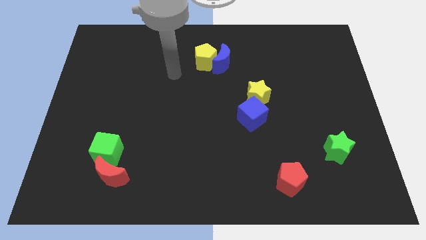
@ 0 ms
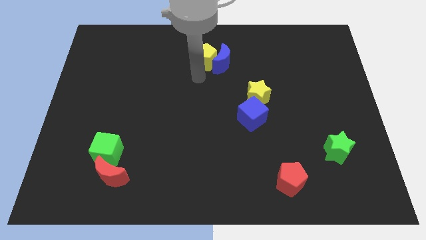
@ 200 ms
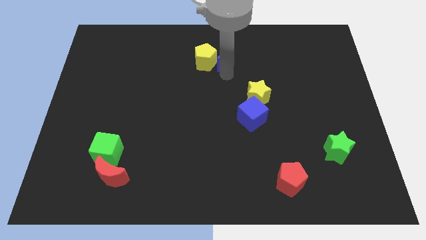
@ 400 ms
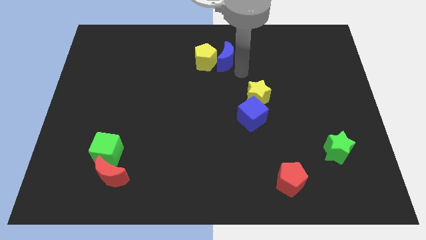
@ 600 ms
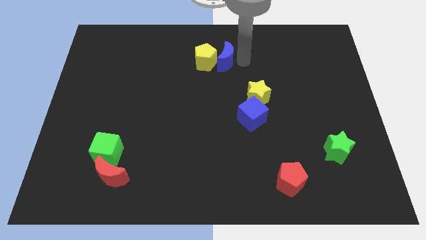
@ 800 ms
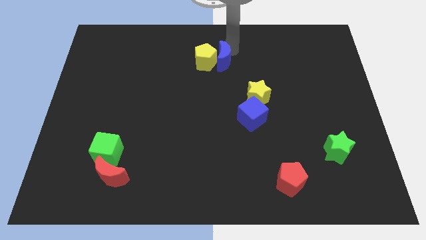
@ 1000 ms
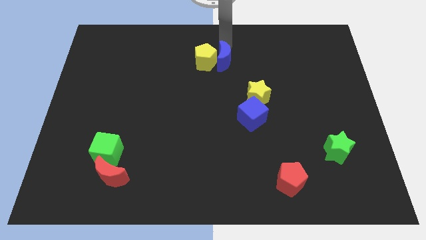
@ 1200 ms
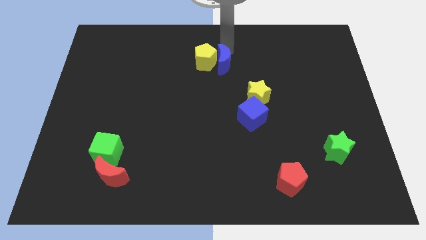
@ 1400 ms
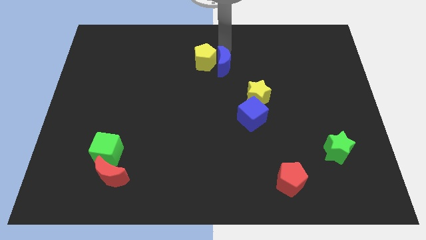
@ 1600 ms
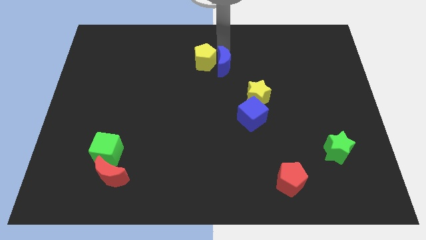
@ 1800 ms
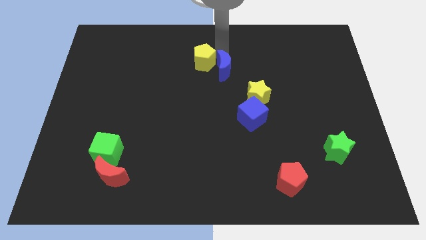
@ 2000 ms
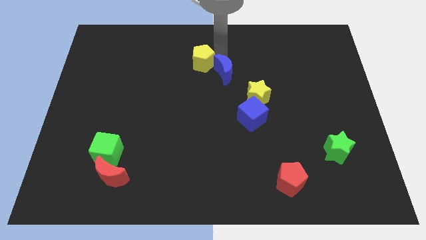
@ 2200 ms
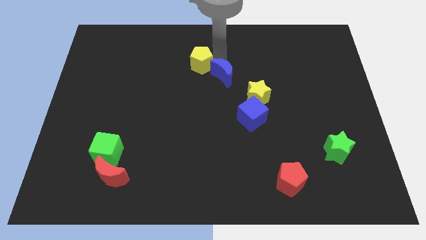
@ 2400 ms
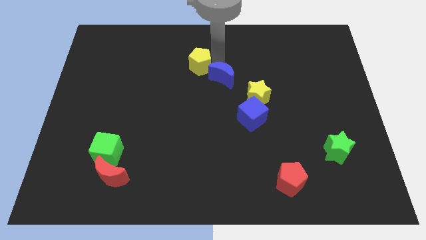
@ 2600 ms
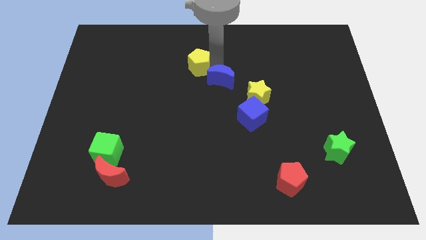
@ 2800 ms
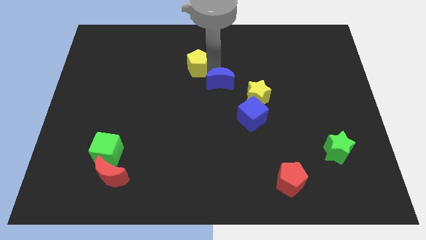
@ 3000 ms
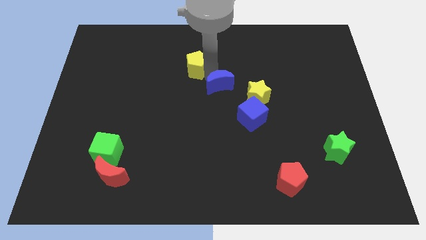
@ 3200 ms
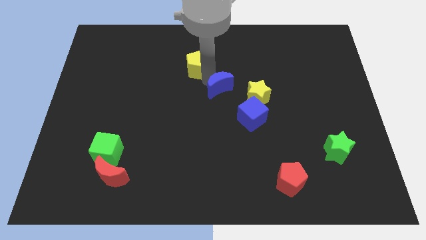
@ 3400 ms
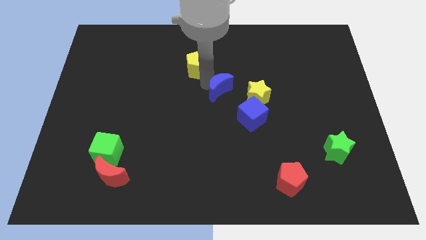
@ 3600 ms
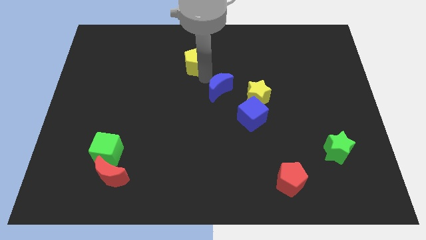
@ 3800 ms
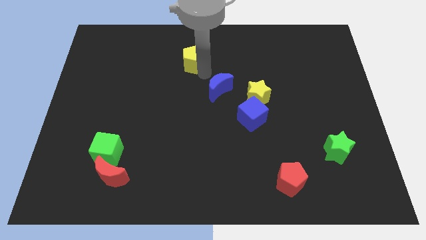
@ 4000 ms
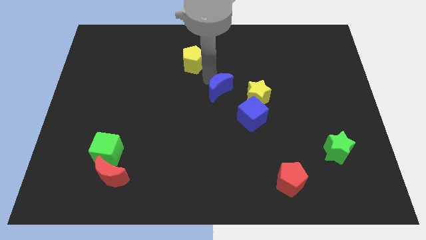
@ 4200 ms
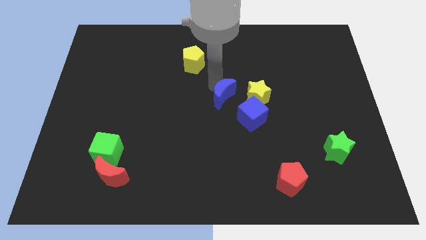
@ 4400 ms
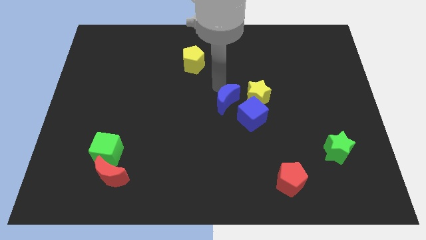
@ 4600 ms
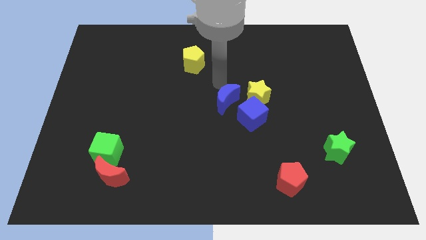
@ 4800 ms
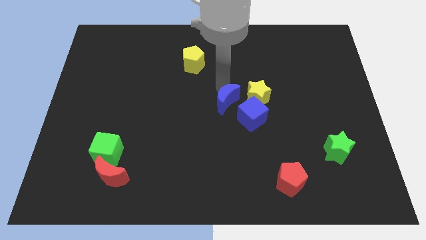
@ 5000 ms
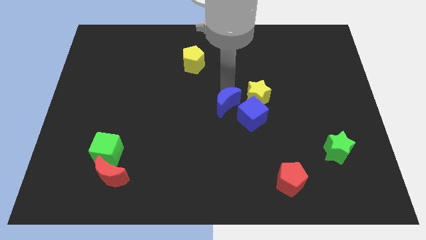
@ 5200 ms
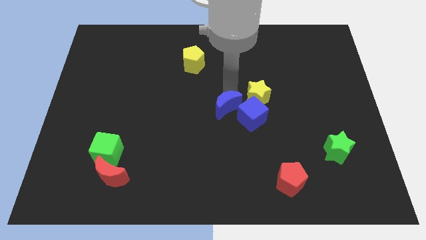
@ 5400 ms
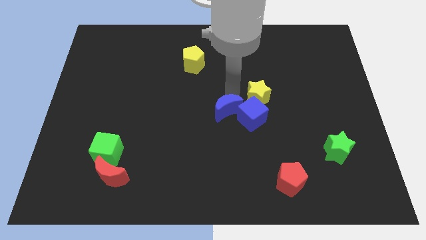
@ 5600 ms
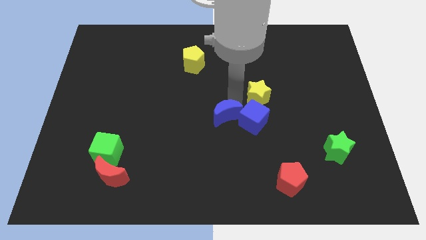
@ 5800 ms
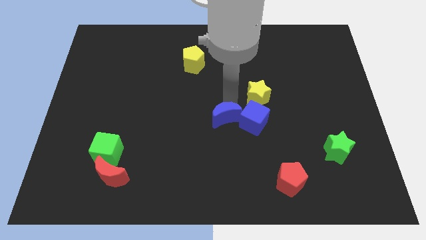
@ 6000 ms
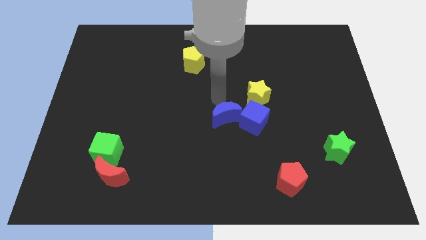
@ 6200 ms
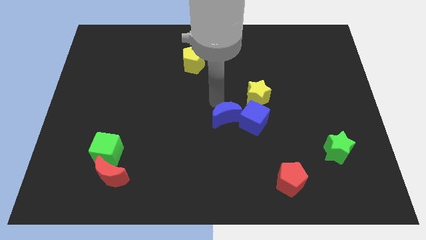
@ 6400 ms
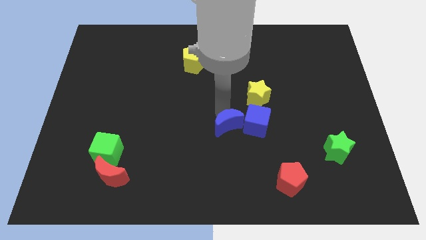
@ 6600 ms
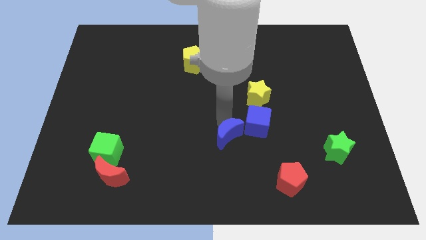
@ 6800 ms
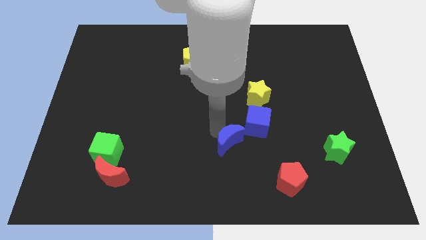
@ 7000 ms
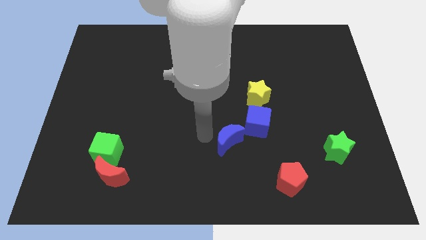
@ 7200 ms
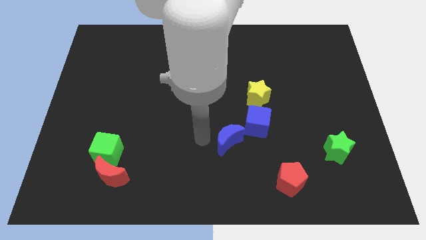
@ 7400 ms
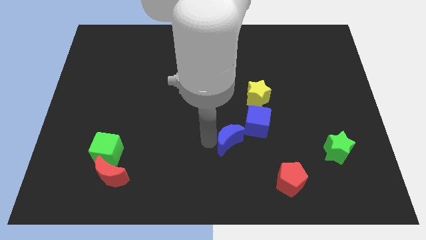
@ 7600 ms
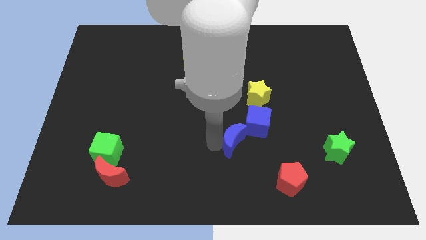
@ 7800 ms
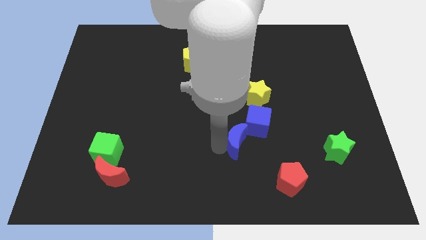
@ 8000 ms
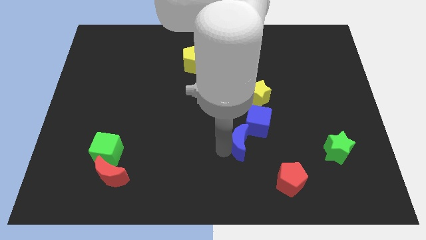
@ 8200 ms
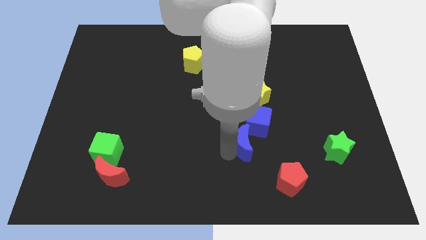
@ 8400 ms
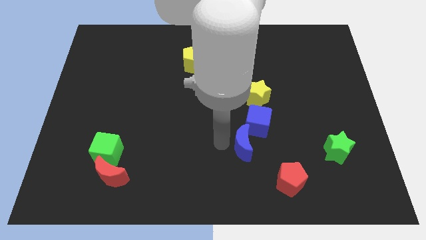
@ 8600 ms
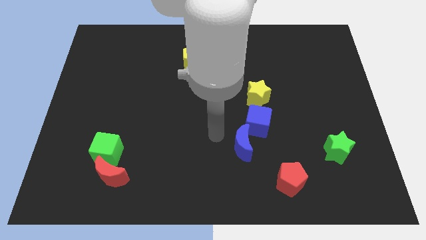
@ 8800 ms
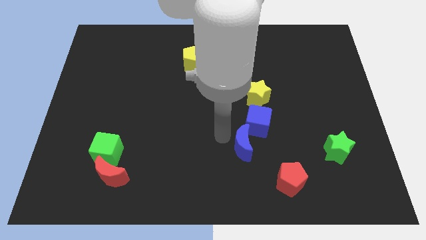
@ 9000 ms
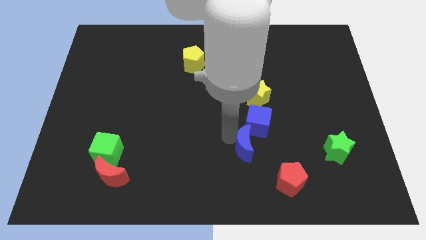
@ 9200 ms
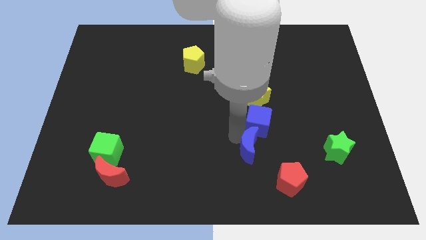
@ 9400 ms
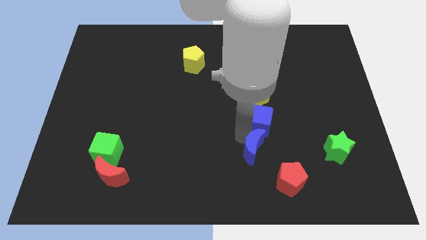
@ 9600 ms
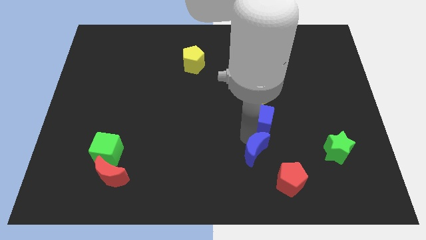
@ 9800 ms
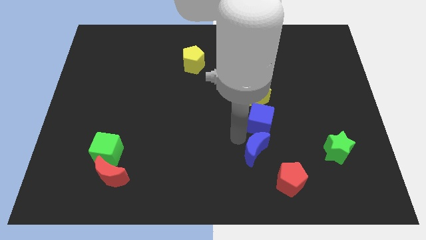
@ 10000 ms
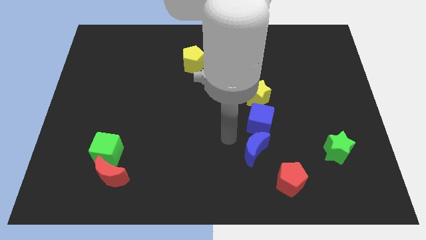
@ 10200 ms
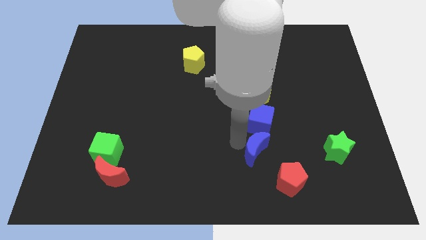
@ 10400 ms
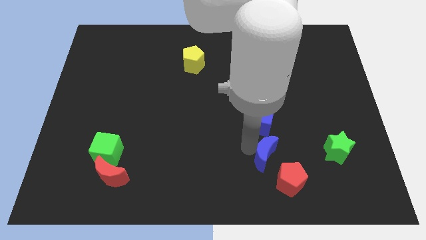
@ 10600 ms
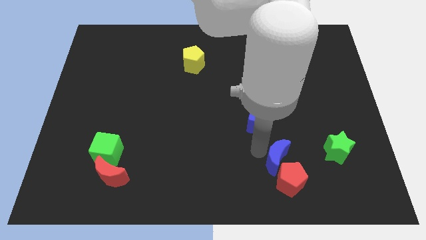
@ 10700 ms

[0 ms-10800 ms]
push the blue moon to the red pentagon

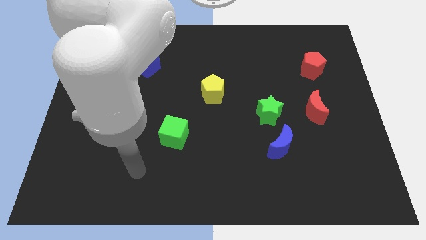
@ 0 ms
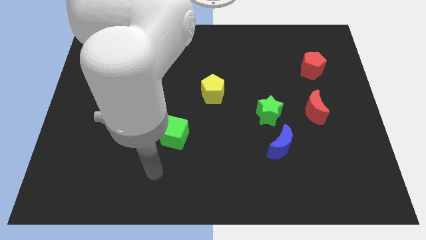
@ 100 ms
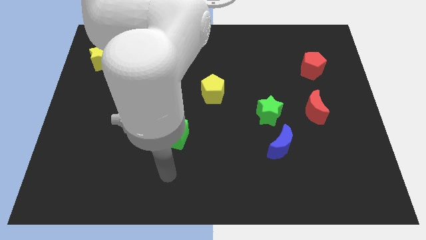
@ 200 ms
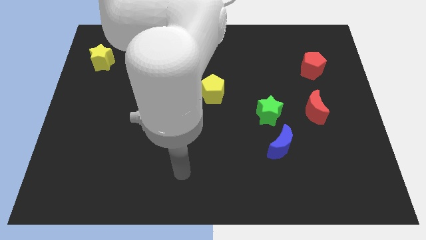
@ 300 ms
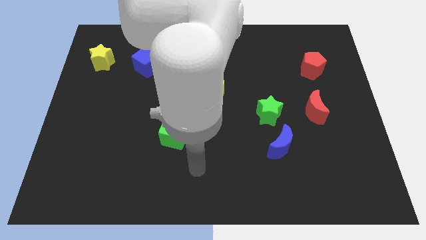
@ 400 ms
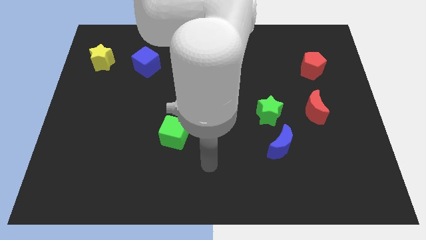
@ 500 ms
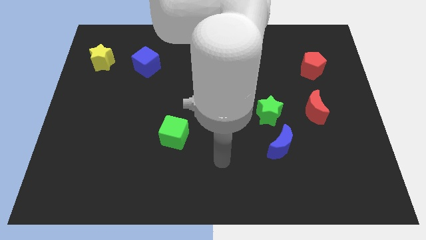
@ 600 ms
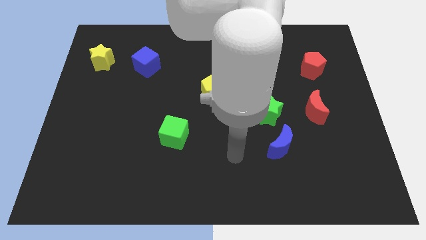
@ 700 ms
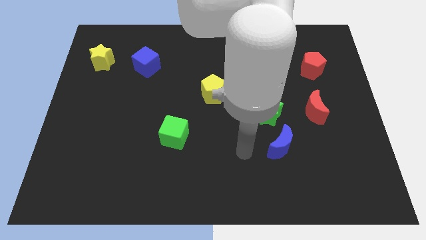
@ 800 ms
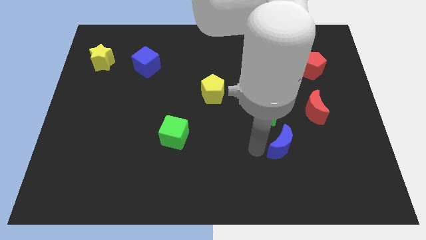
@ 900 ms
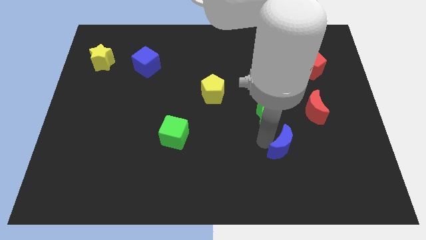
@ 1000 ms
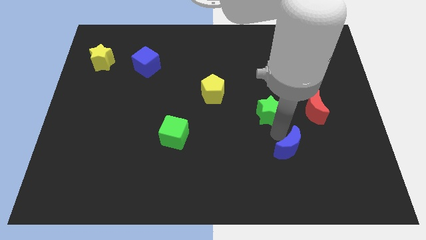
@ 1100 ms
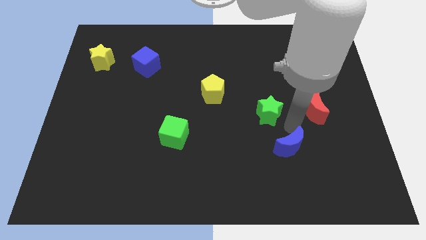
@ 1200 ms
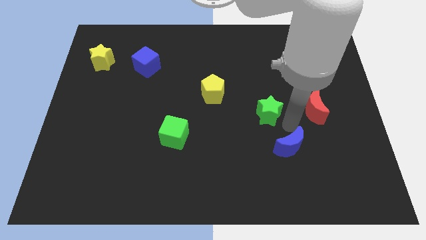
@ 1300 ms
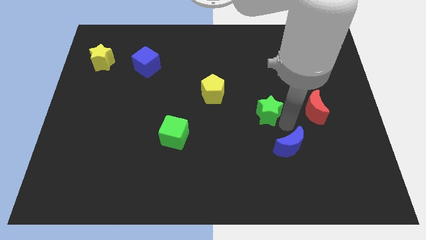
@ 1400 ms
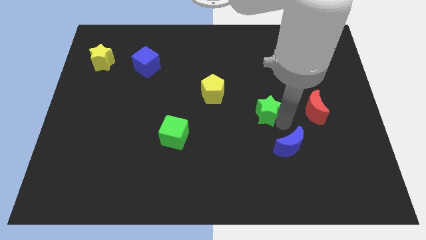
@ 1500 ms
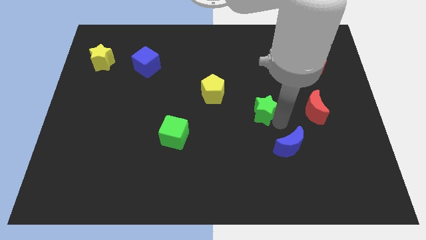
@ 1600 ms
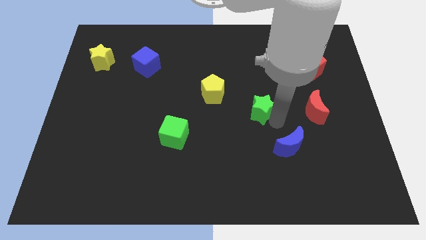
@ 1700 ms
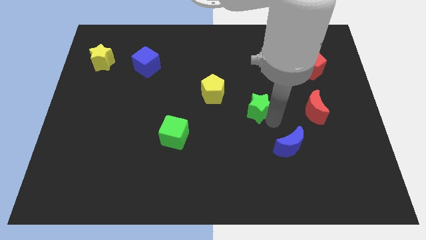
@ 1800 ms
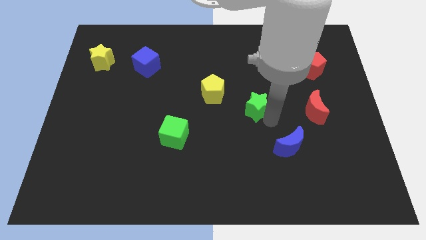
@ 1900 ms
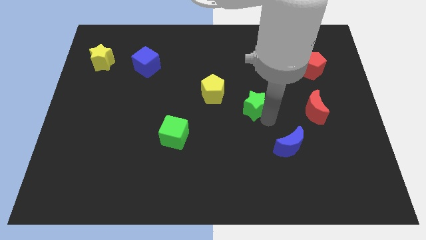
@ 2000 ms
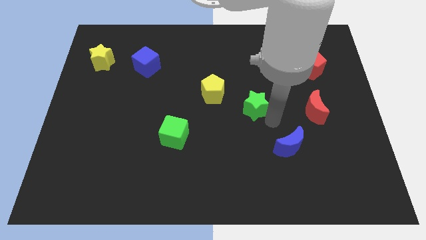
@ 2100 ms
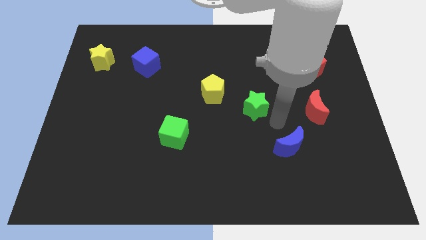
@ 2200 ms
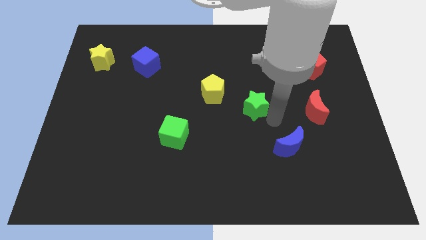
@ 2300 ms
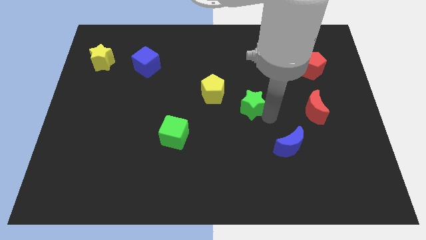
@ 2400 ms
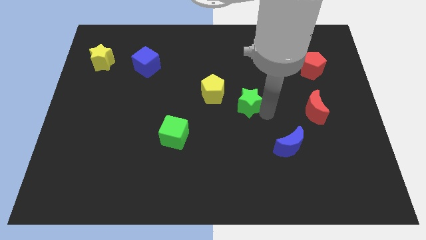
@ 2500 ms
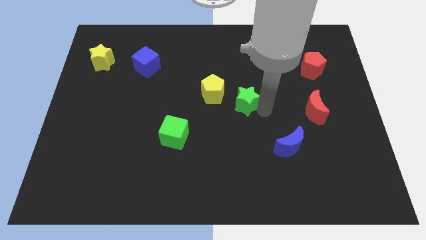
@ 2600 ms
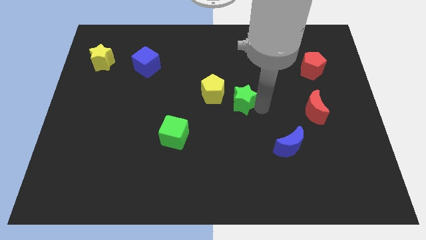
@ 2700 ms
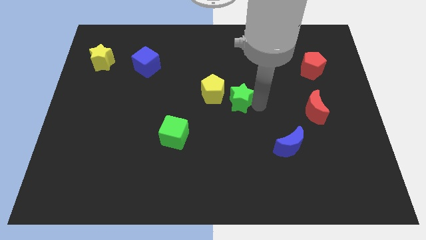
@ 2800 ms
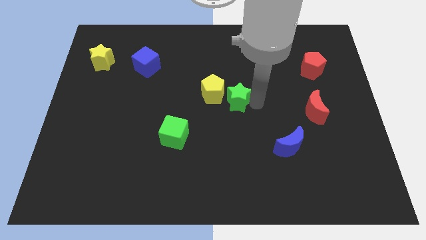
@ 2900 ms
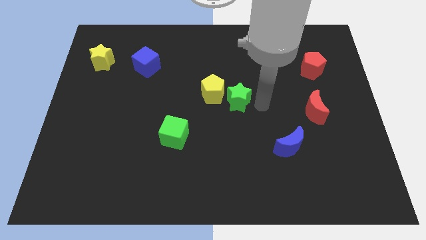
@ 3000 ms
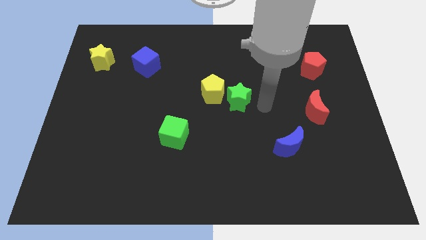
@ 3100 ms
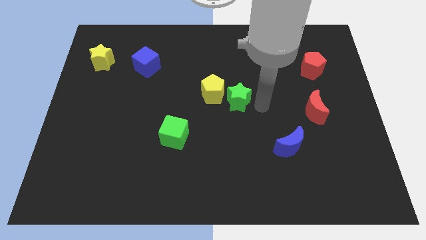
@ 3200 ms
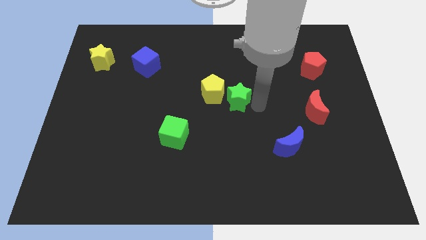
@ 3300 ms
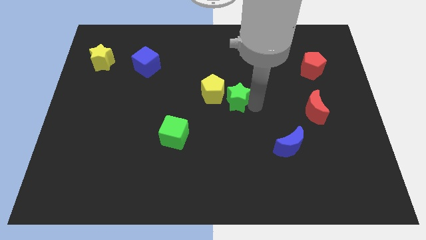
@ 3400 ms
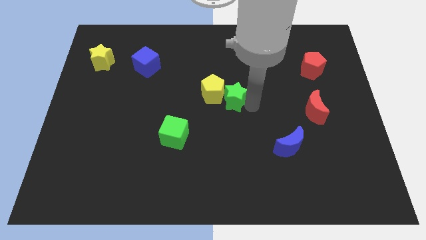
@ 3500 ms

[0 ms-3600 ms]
slide the green star towards the yellow pentagon
